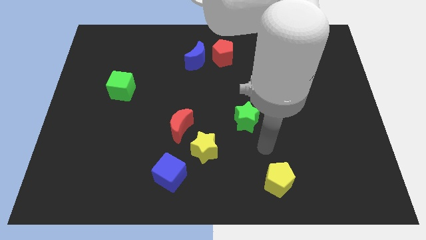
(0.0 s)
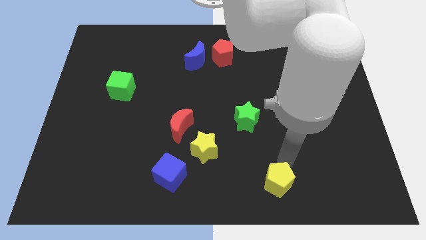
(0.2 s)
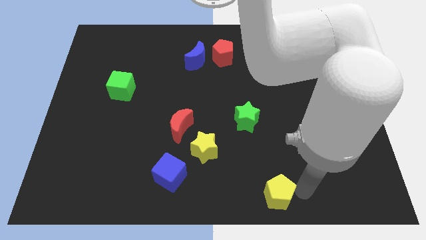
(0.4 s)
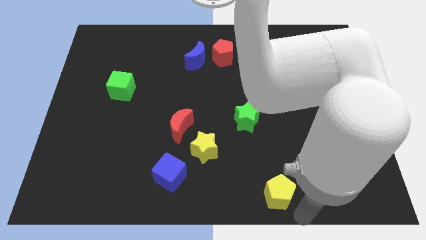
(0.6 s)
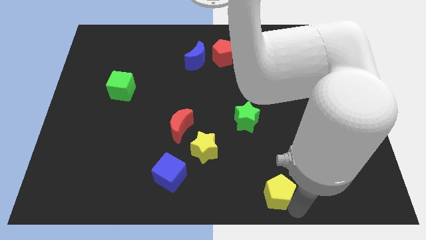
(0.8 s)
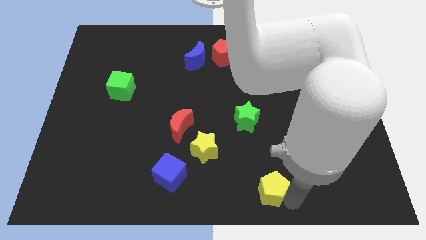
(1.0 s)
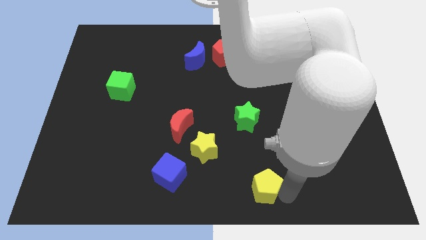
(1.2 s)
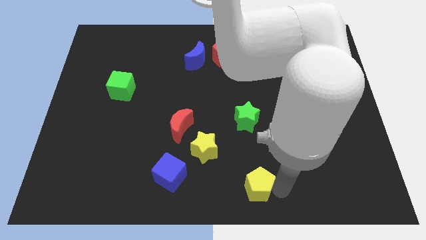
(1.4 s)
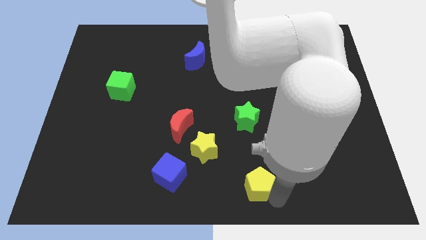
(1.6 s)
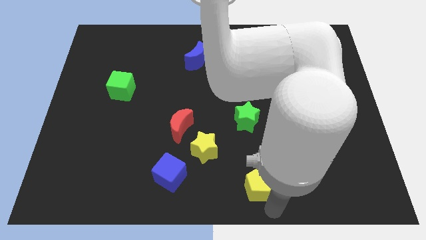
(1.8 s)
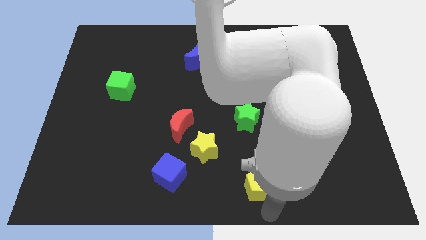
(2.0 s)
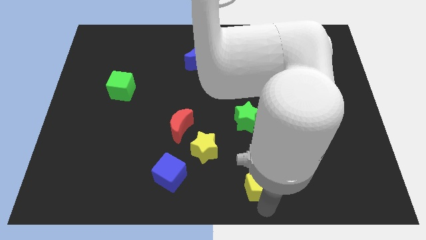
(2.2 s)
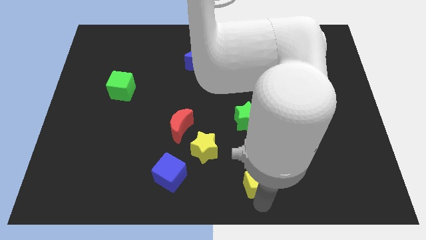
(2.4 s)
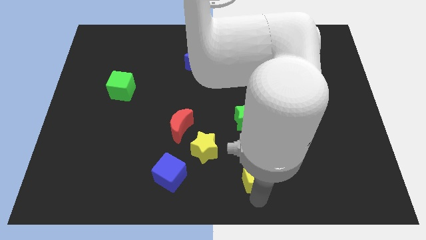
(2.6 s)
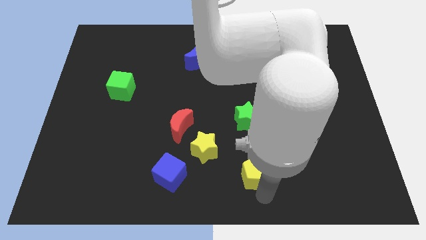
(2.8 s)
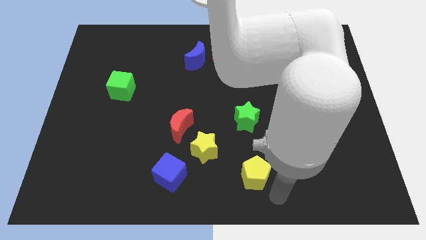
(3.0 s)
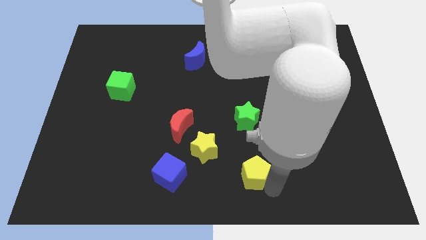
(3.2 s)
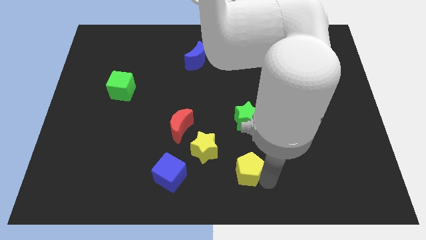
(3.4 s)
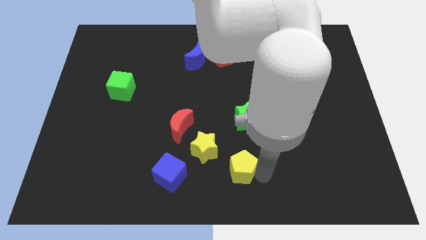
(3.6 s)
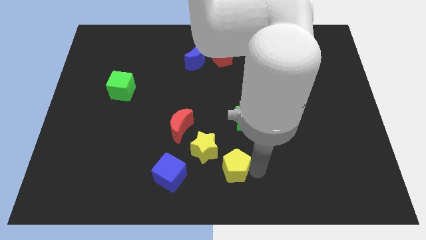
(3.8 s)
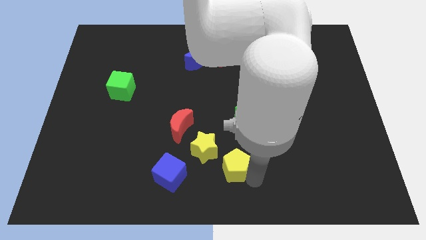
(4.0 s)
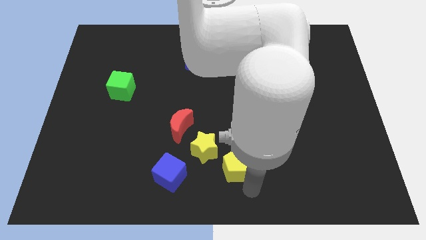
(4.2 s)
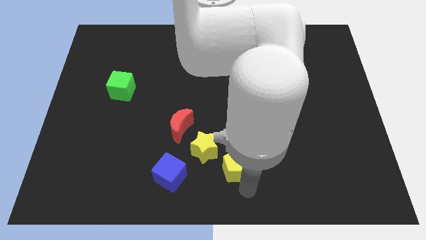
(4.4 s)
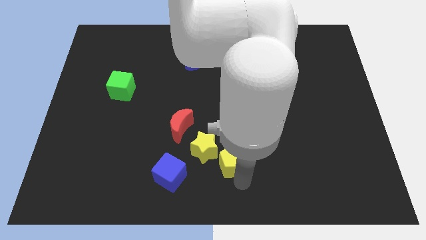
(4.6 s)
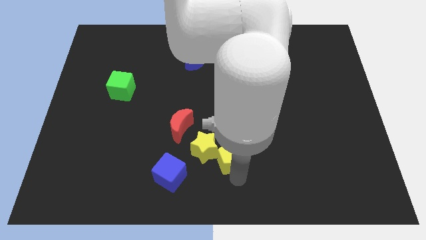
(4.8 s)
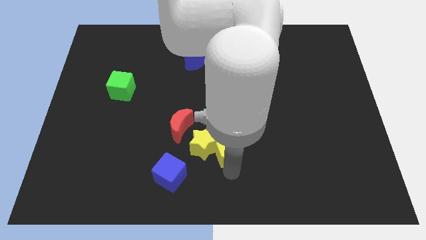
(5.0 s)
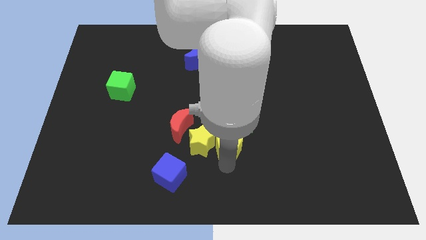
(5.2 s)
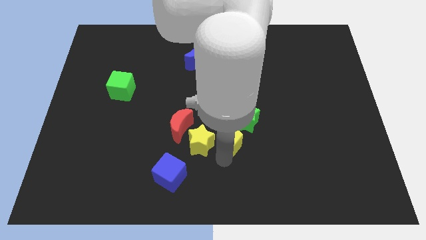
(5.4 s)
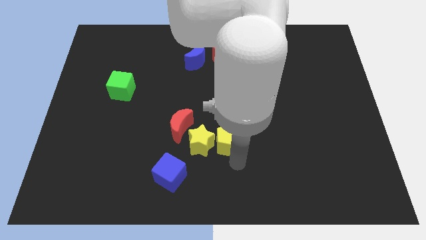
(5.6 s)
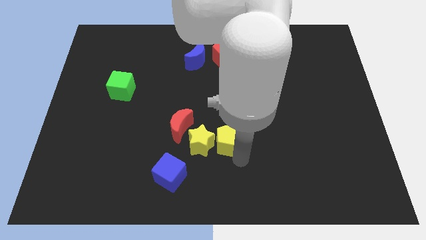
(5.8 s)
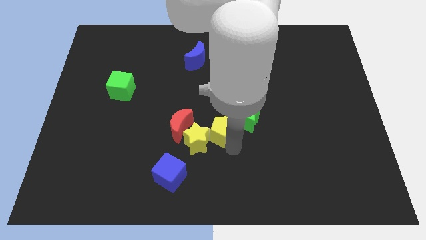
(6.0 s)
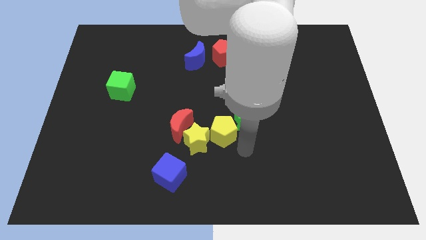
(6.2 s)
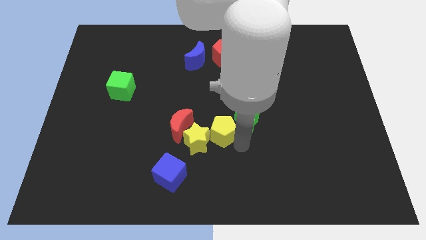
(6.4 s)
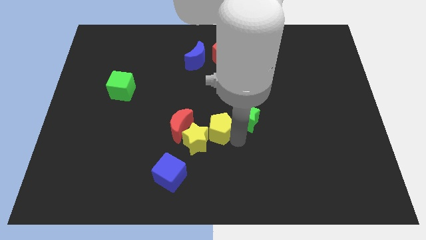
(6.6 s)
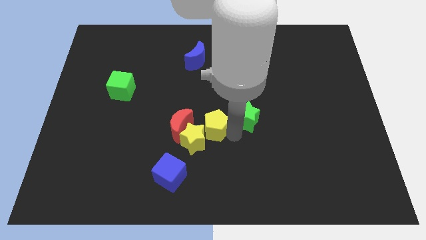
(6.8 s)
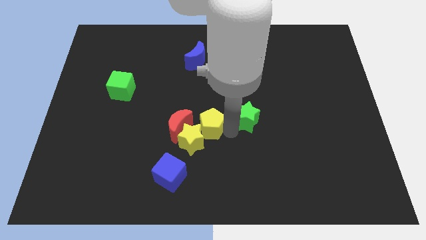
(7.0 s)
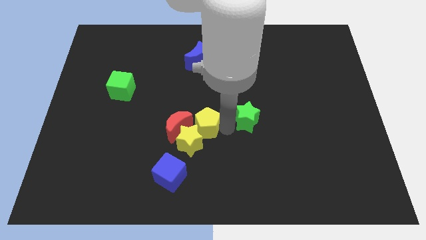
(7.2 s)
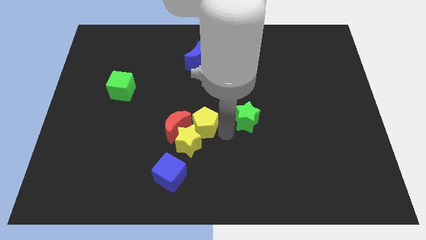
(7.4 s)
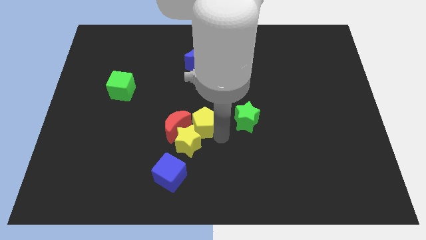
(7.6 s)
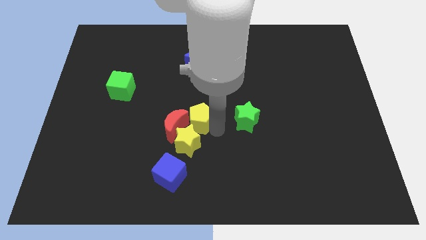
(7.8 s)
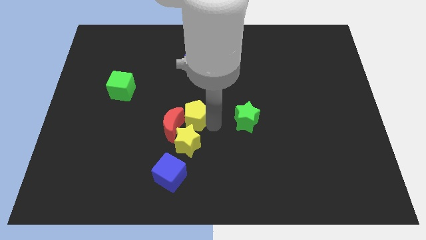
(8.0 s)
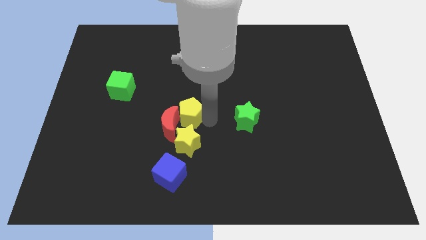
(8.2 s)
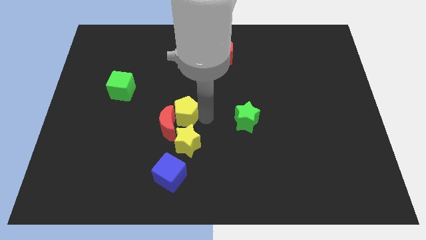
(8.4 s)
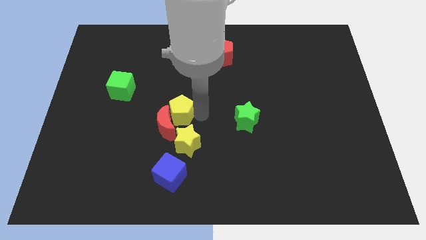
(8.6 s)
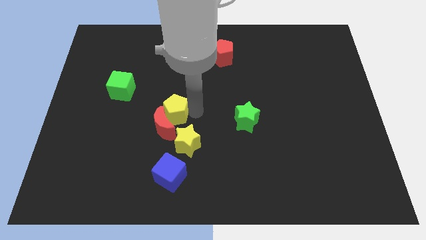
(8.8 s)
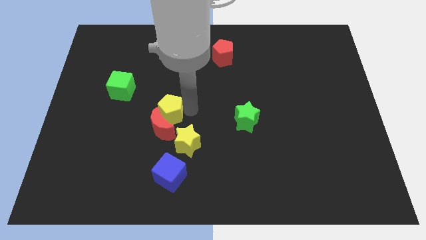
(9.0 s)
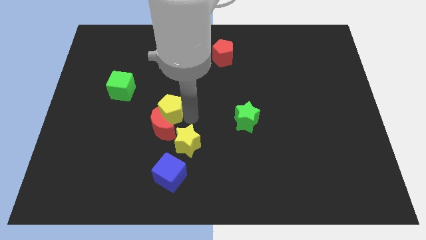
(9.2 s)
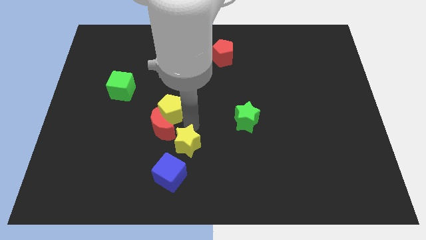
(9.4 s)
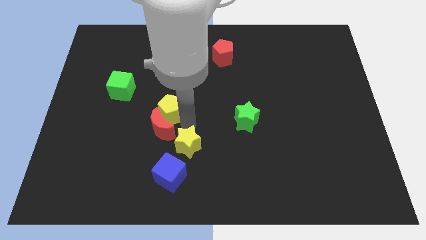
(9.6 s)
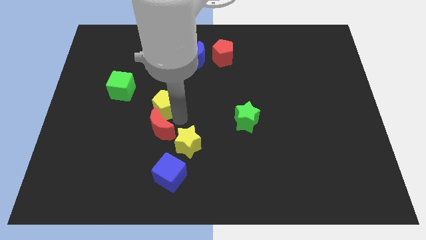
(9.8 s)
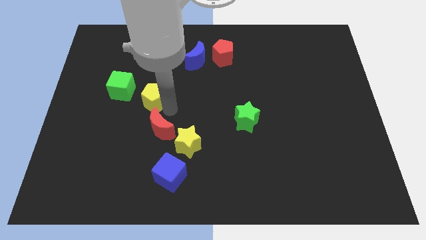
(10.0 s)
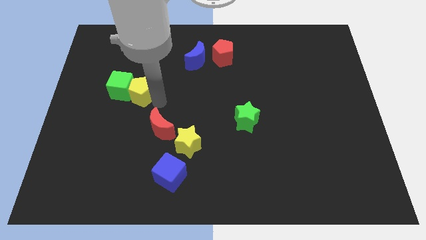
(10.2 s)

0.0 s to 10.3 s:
slide the yellow pentagon close to the green cube

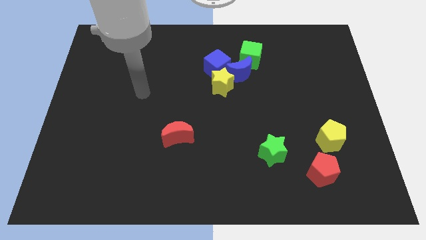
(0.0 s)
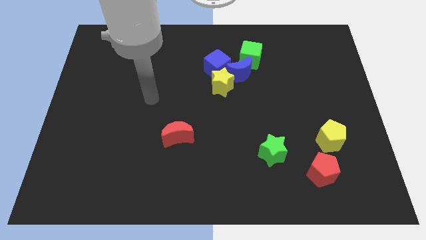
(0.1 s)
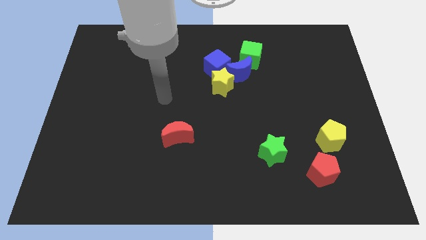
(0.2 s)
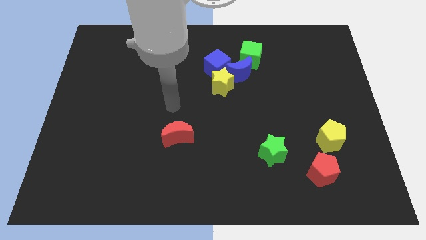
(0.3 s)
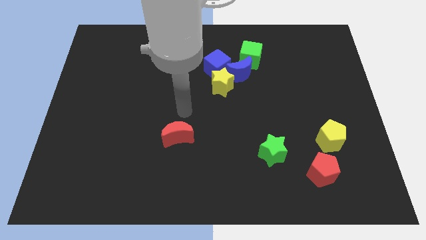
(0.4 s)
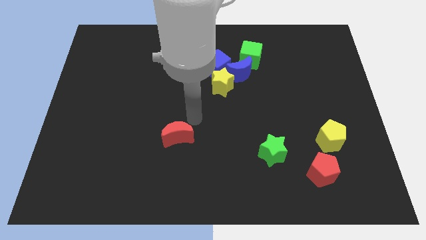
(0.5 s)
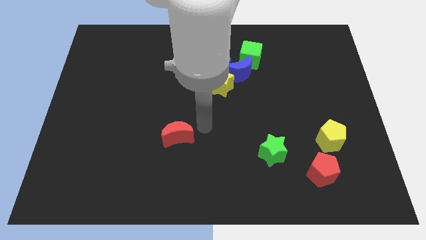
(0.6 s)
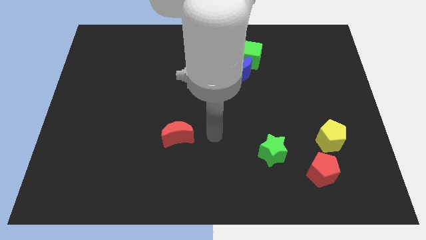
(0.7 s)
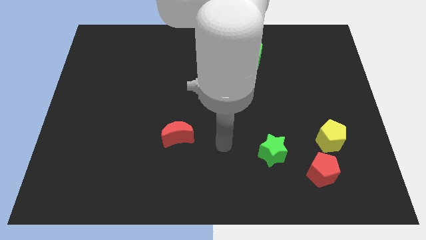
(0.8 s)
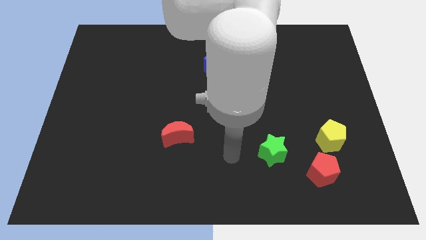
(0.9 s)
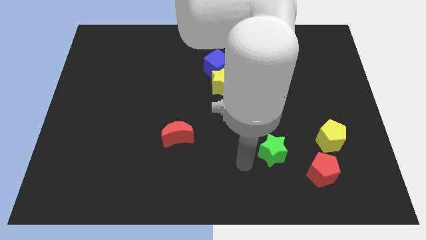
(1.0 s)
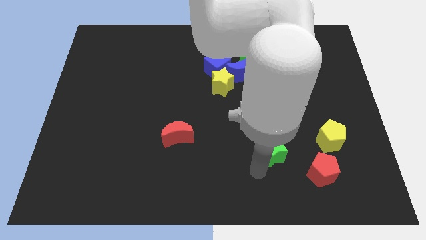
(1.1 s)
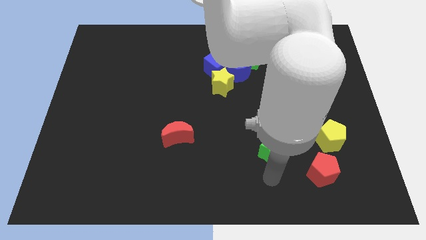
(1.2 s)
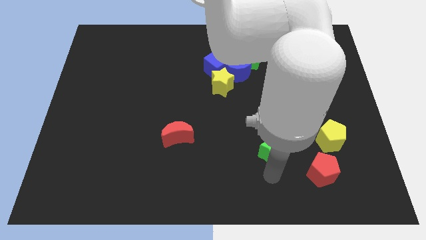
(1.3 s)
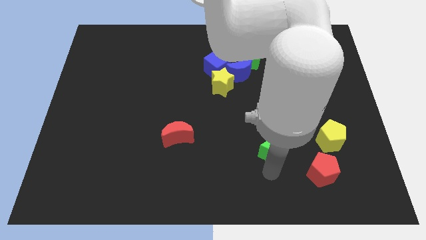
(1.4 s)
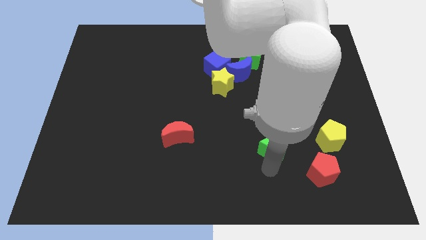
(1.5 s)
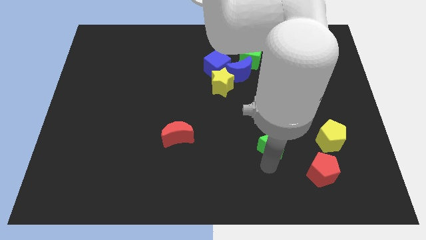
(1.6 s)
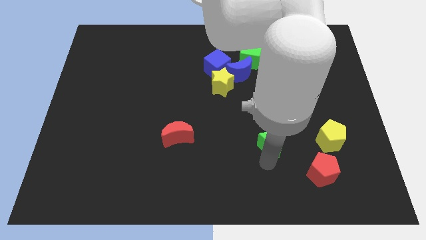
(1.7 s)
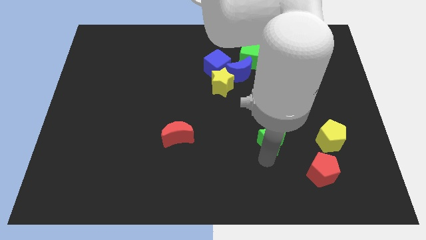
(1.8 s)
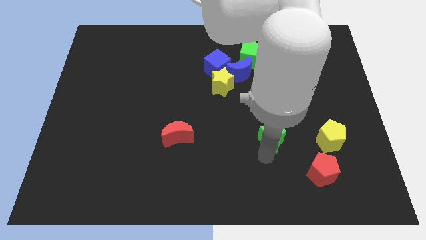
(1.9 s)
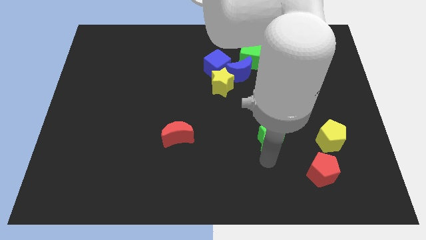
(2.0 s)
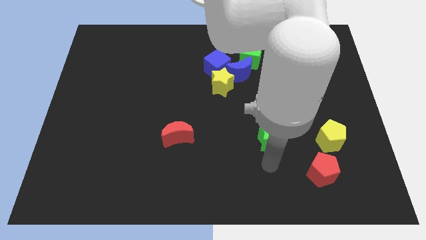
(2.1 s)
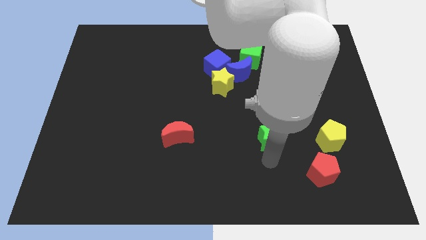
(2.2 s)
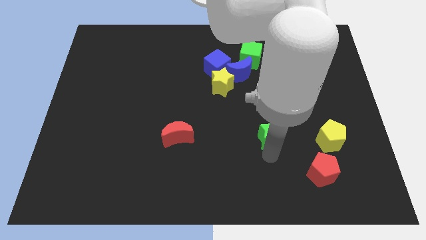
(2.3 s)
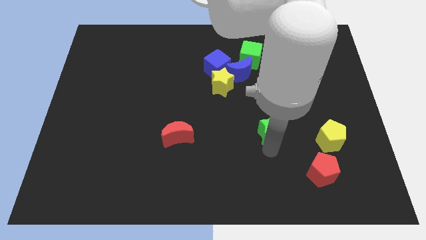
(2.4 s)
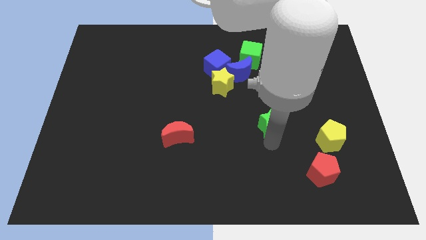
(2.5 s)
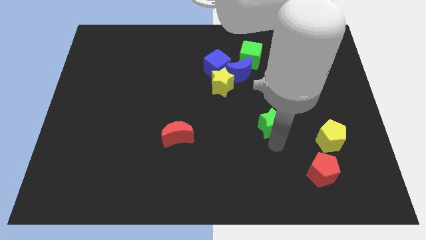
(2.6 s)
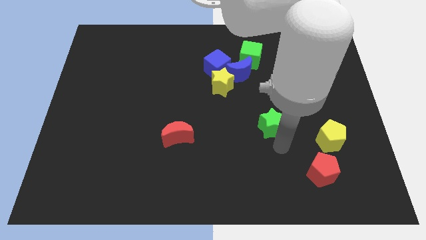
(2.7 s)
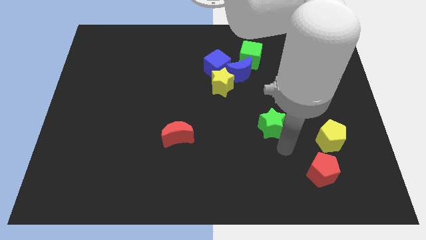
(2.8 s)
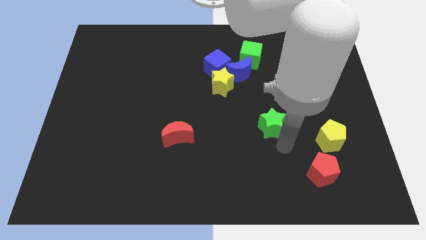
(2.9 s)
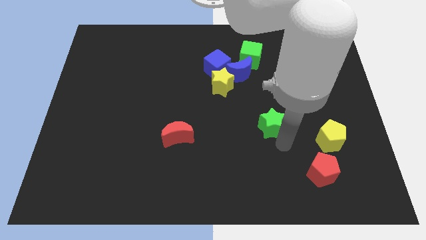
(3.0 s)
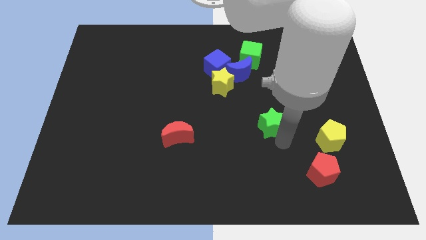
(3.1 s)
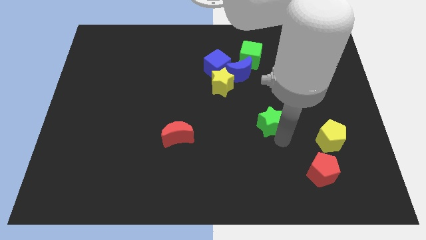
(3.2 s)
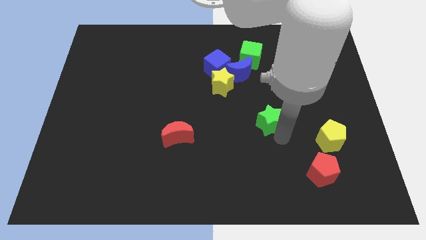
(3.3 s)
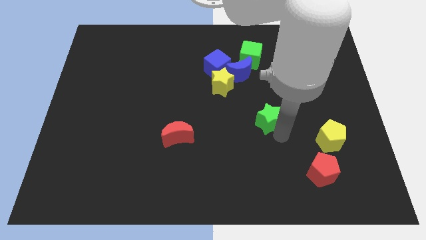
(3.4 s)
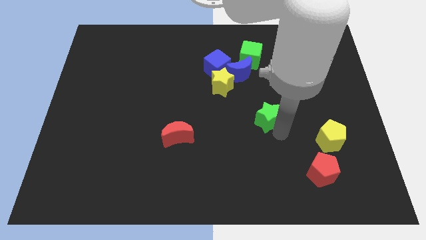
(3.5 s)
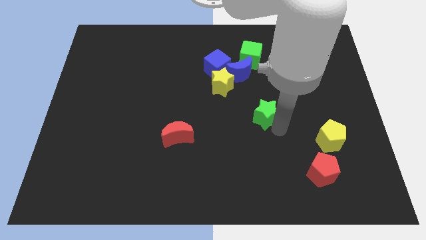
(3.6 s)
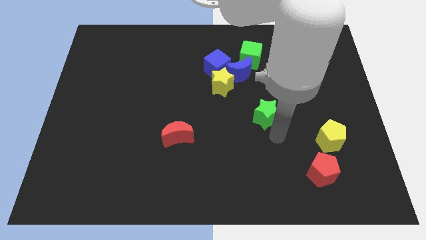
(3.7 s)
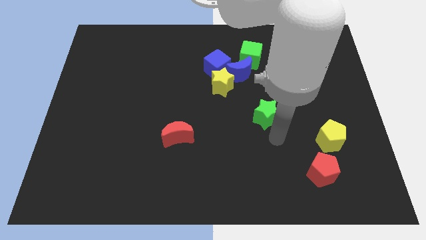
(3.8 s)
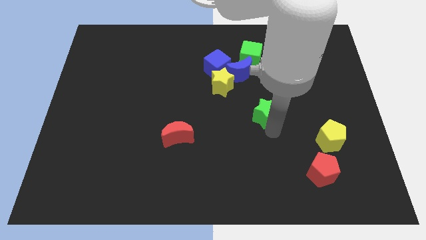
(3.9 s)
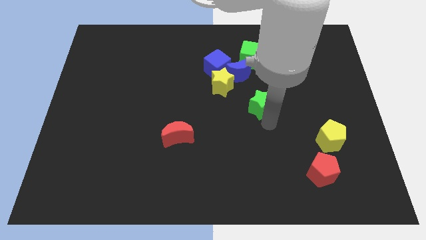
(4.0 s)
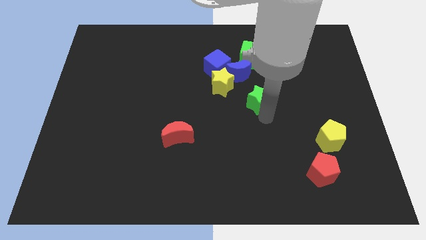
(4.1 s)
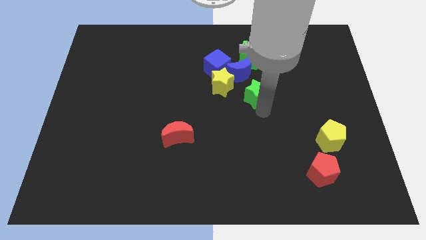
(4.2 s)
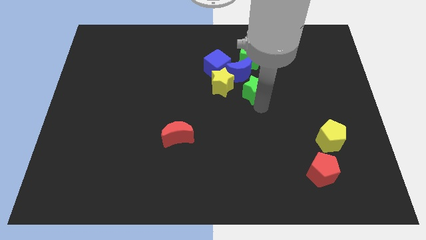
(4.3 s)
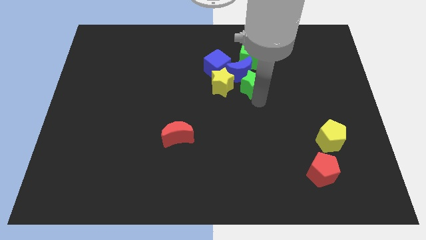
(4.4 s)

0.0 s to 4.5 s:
push the green star close to the blue moon
